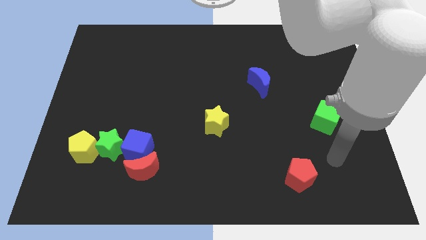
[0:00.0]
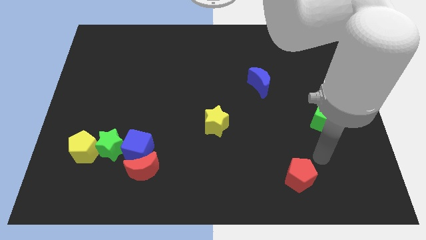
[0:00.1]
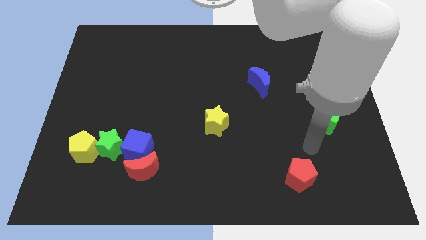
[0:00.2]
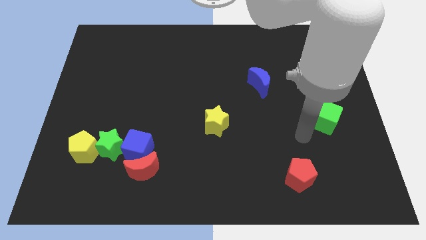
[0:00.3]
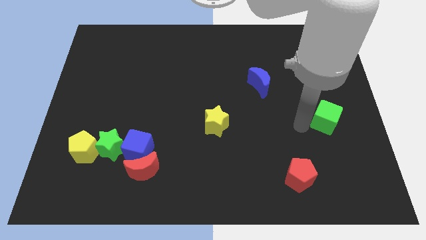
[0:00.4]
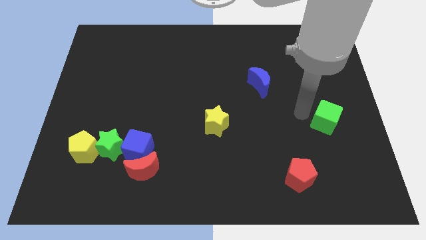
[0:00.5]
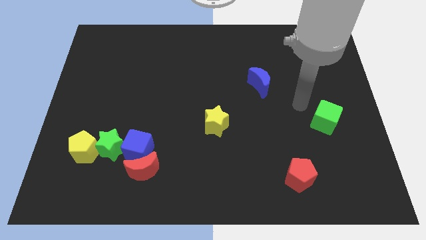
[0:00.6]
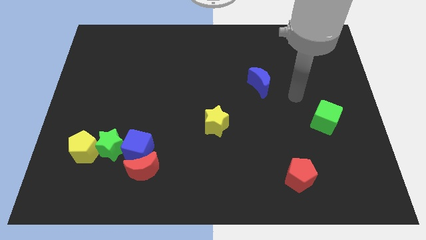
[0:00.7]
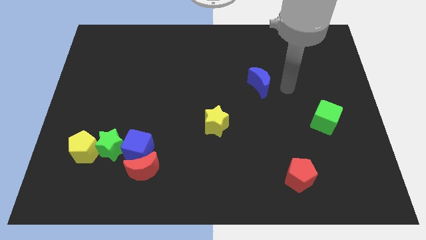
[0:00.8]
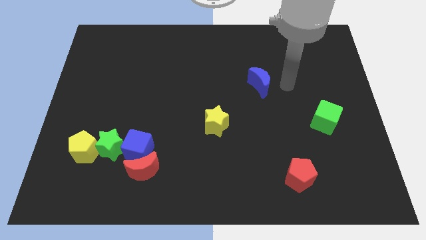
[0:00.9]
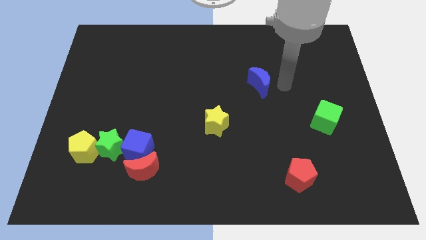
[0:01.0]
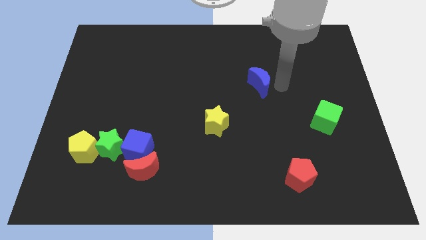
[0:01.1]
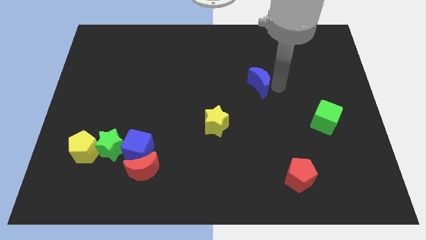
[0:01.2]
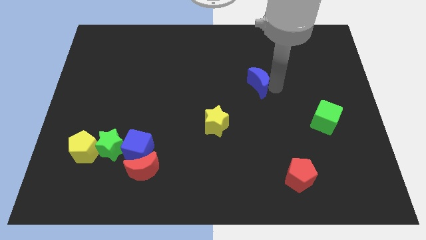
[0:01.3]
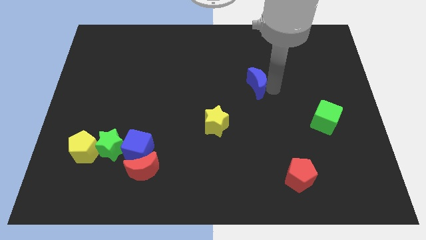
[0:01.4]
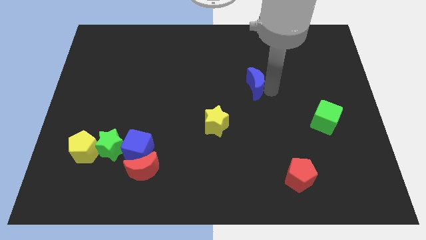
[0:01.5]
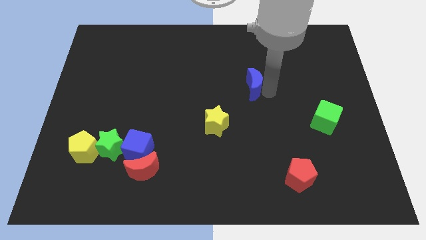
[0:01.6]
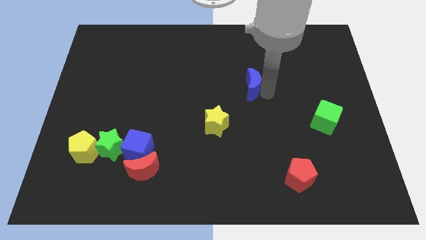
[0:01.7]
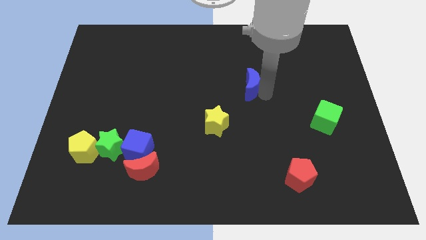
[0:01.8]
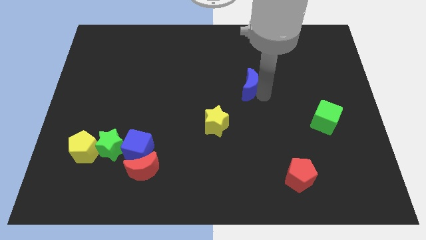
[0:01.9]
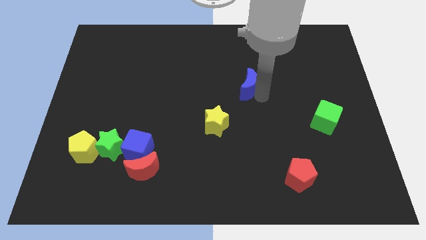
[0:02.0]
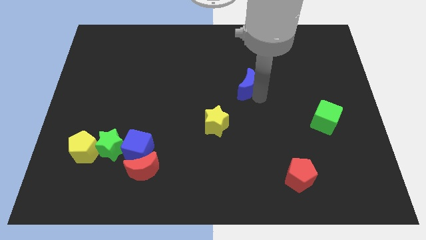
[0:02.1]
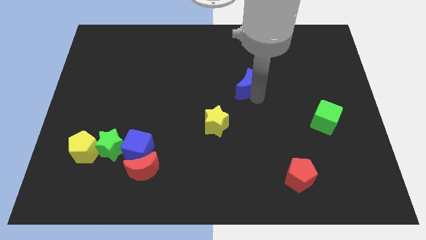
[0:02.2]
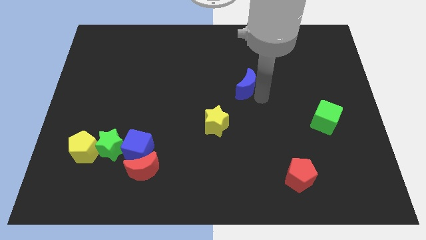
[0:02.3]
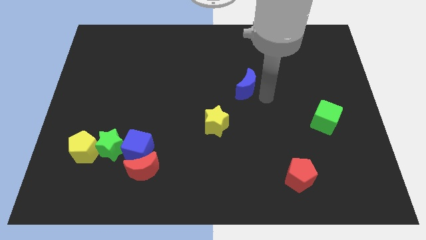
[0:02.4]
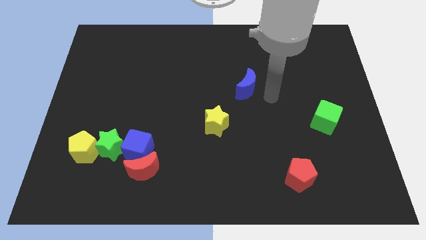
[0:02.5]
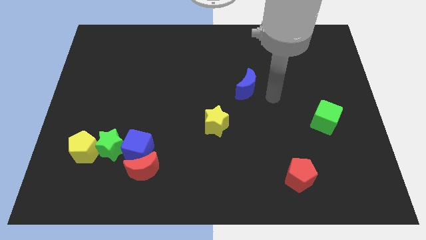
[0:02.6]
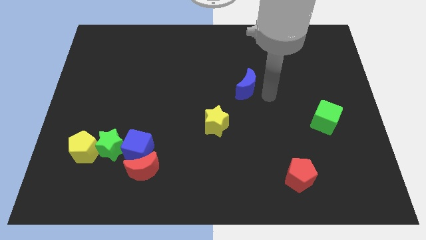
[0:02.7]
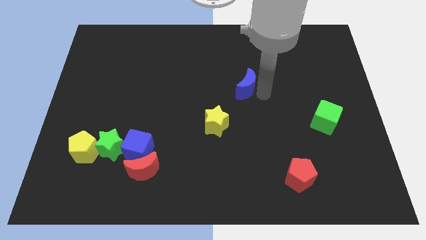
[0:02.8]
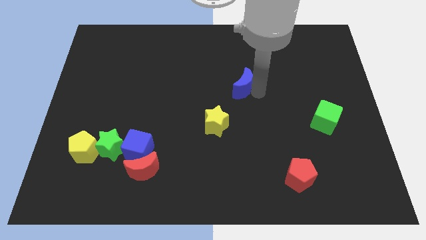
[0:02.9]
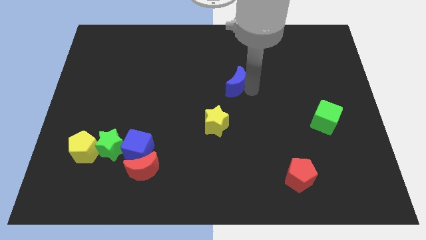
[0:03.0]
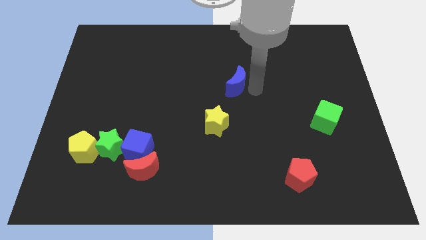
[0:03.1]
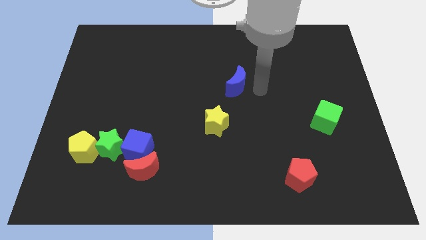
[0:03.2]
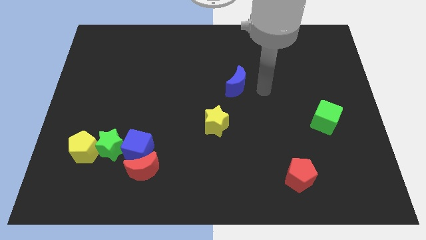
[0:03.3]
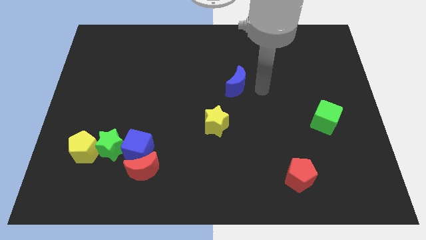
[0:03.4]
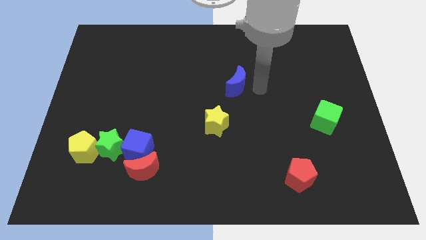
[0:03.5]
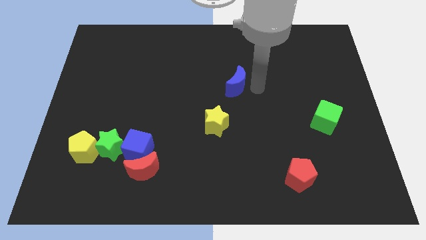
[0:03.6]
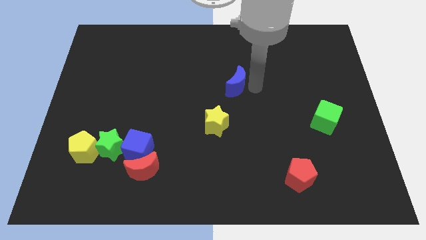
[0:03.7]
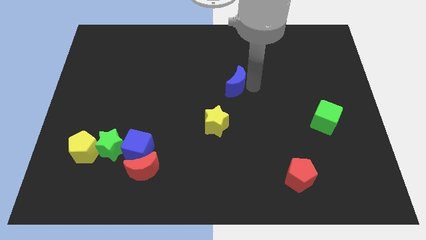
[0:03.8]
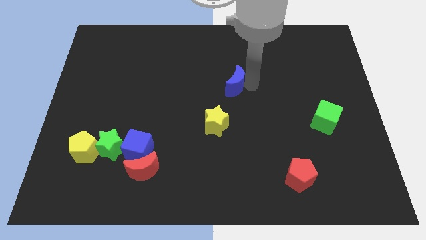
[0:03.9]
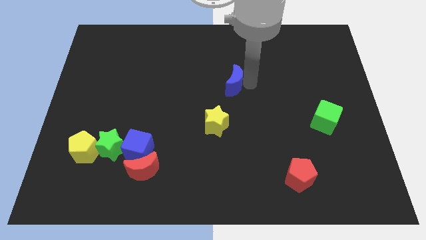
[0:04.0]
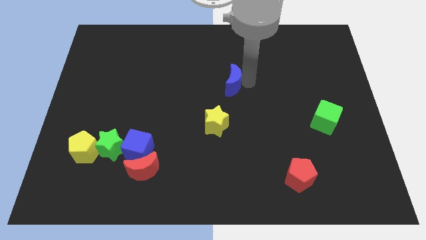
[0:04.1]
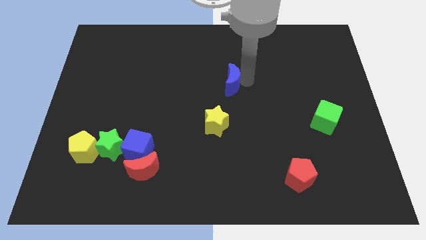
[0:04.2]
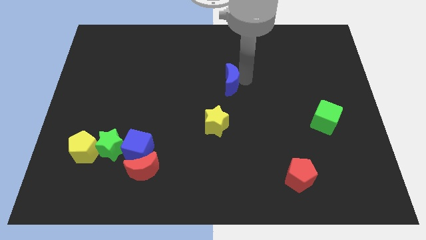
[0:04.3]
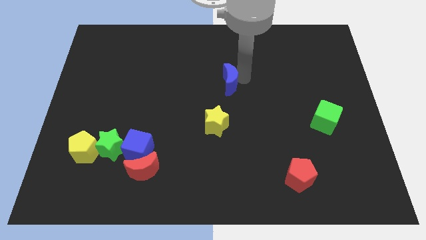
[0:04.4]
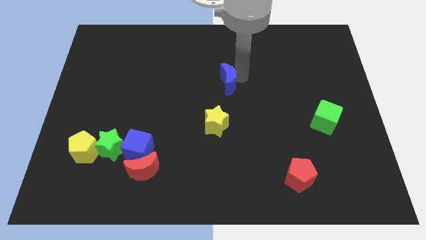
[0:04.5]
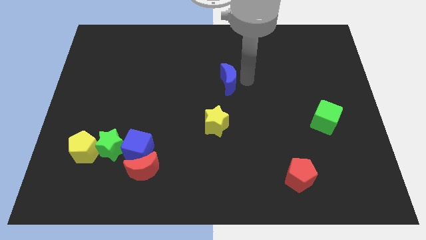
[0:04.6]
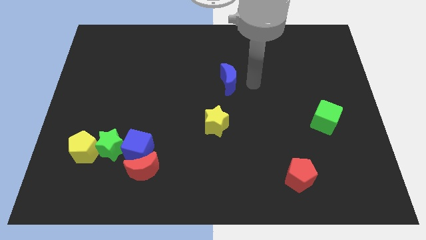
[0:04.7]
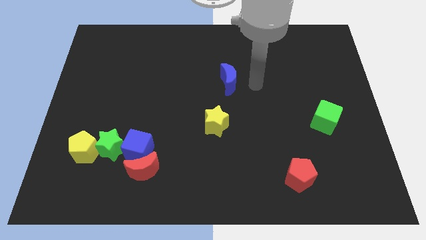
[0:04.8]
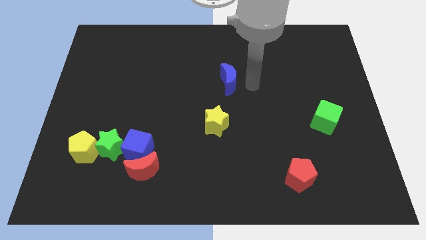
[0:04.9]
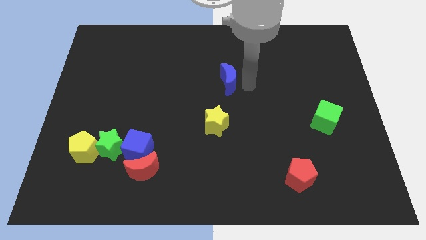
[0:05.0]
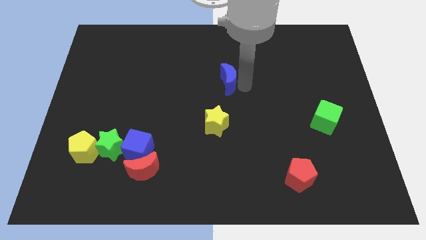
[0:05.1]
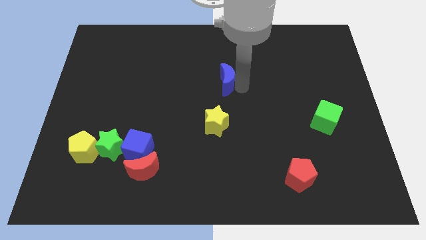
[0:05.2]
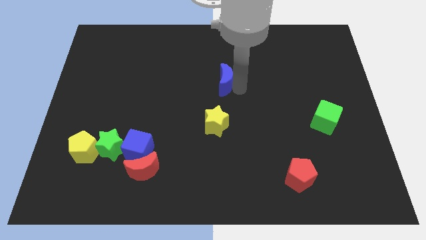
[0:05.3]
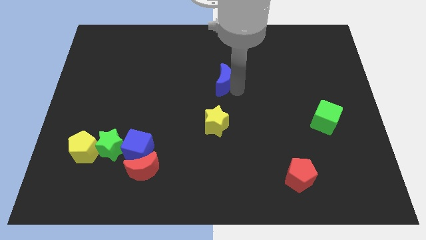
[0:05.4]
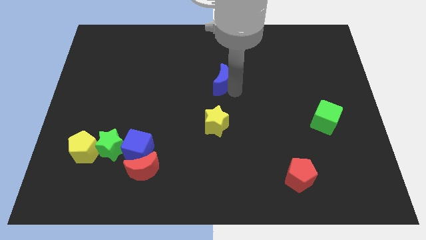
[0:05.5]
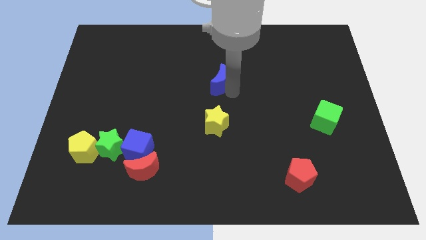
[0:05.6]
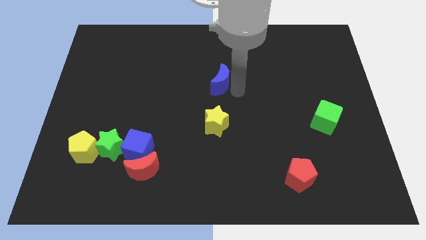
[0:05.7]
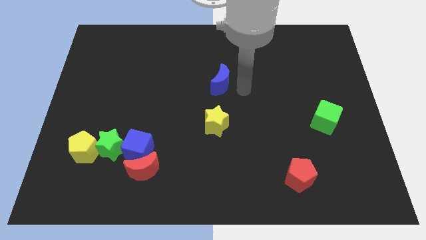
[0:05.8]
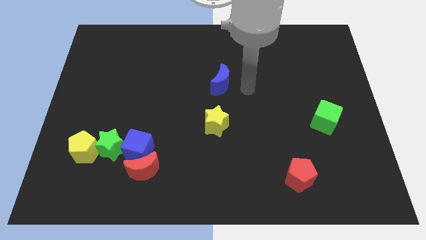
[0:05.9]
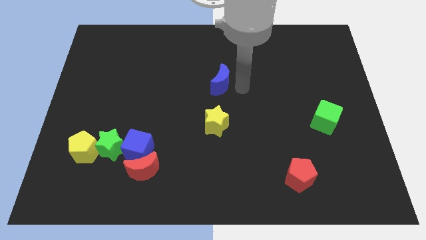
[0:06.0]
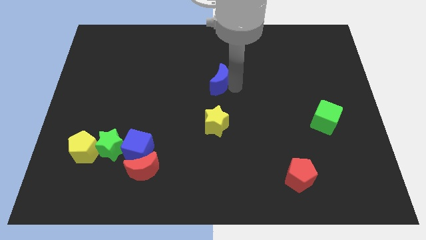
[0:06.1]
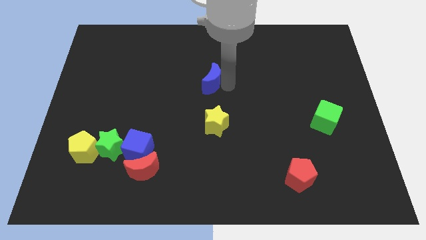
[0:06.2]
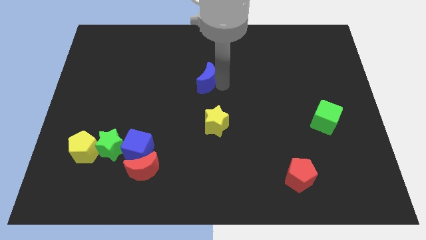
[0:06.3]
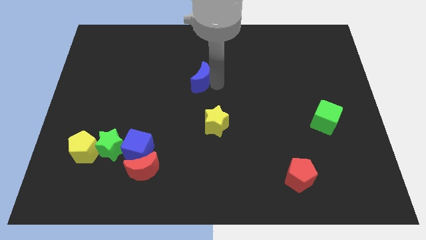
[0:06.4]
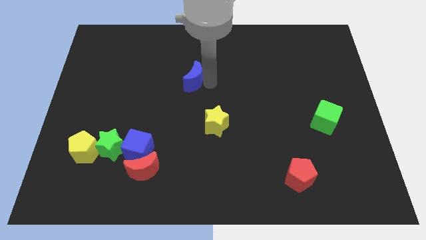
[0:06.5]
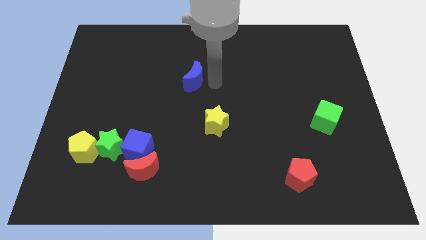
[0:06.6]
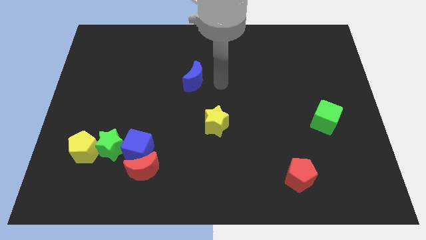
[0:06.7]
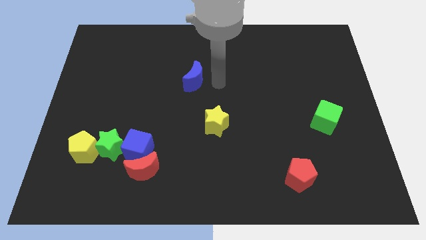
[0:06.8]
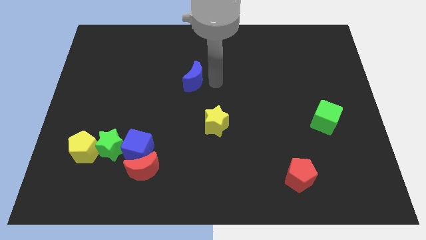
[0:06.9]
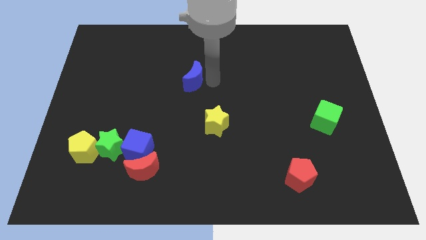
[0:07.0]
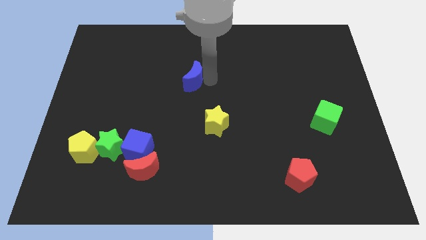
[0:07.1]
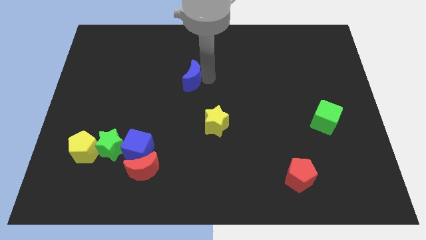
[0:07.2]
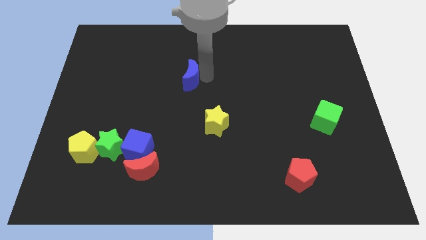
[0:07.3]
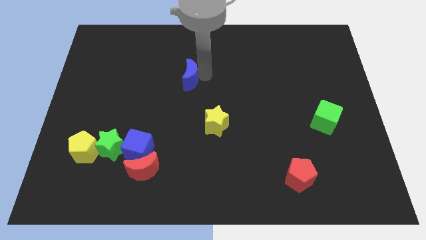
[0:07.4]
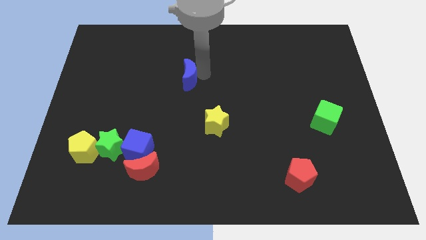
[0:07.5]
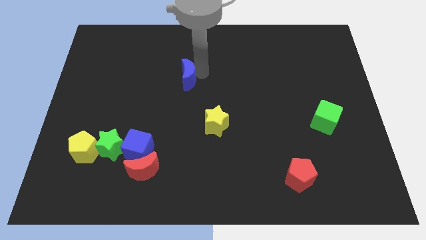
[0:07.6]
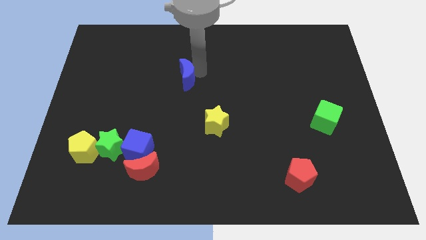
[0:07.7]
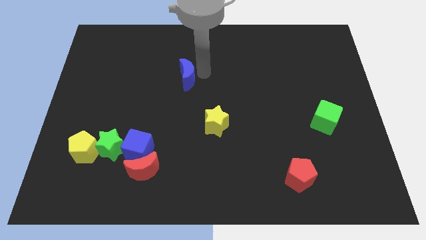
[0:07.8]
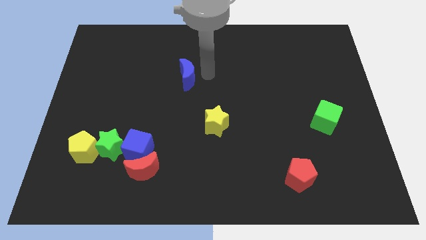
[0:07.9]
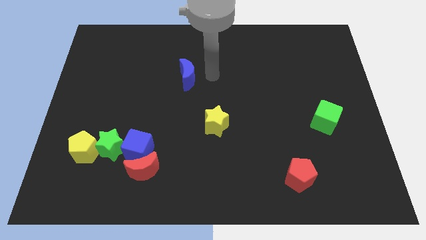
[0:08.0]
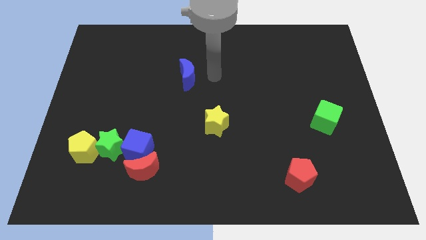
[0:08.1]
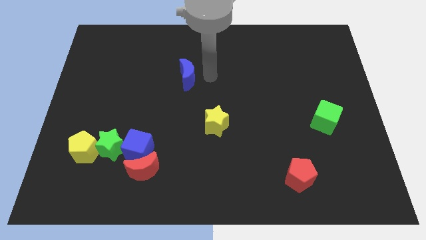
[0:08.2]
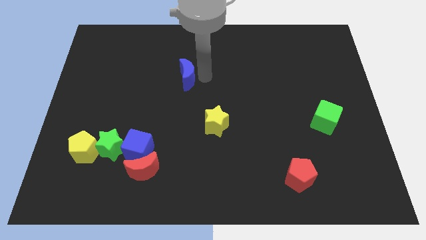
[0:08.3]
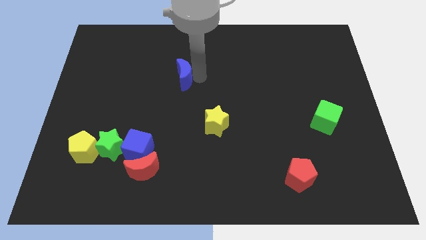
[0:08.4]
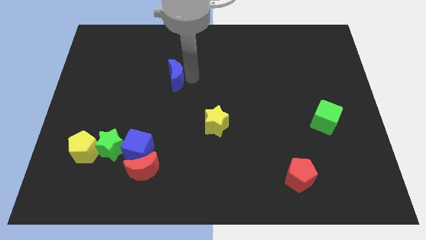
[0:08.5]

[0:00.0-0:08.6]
push the blue moon to the left
